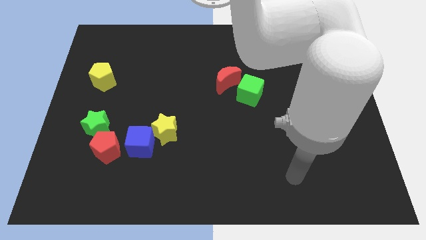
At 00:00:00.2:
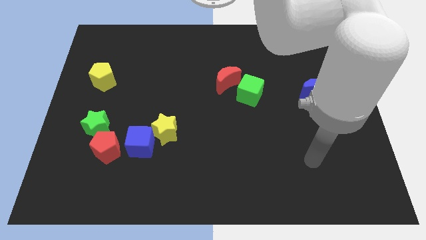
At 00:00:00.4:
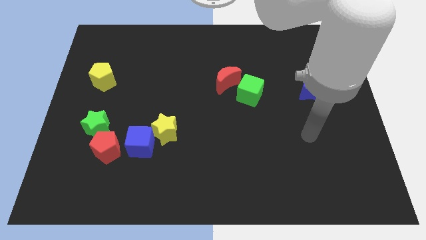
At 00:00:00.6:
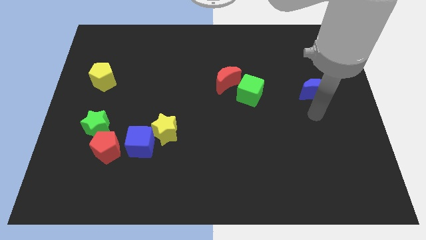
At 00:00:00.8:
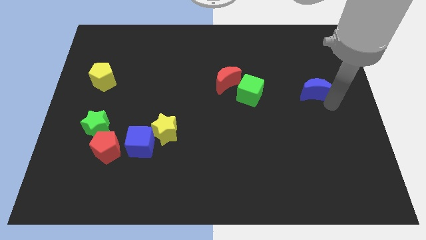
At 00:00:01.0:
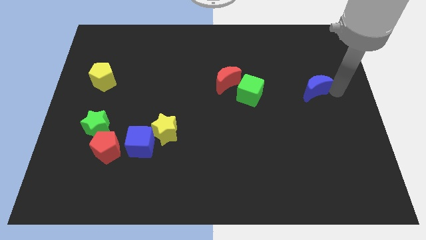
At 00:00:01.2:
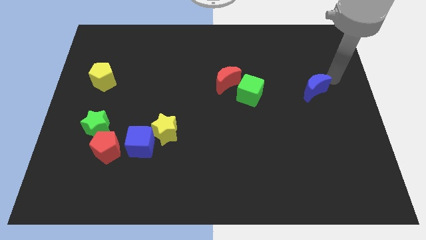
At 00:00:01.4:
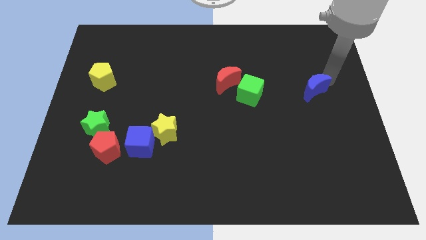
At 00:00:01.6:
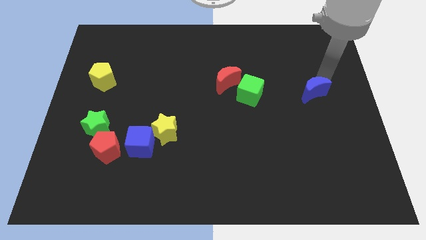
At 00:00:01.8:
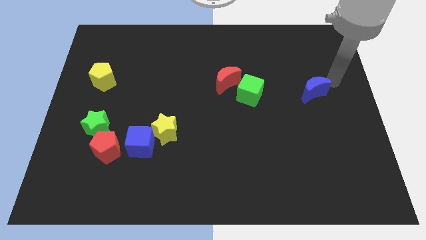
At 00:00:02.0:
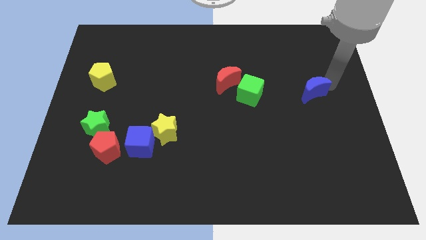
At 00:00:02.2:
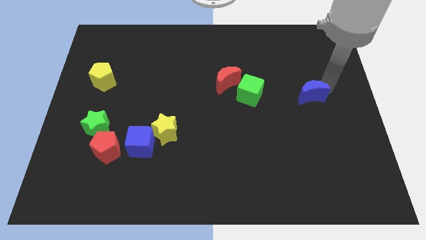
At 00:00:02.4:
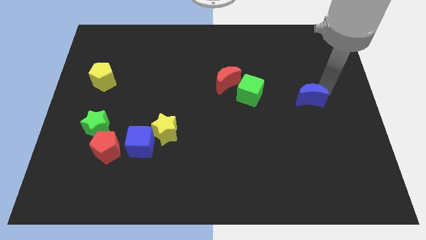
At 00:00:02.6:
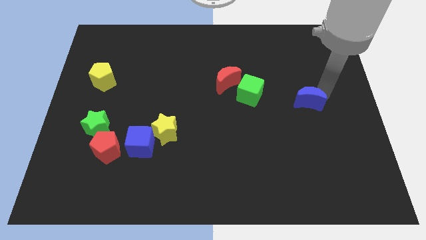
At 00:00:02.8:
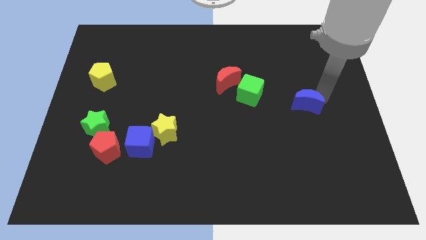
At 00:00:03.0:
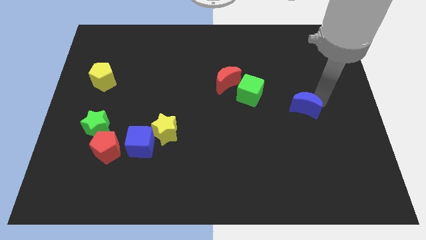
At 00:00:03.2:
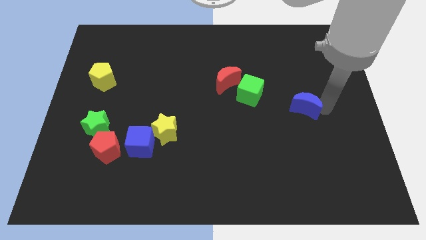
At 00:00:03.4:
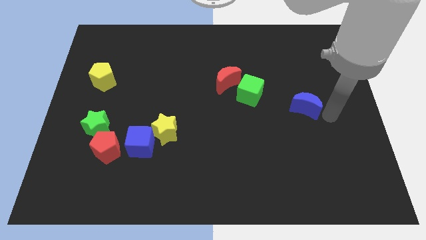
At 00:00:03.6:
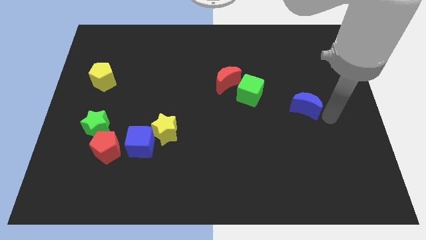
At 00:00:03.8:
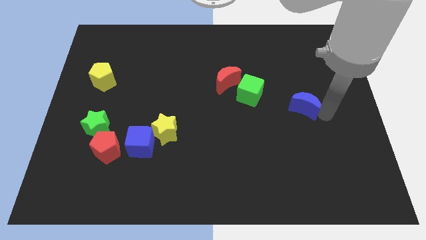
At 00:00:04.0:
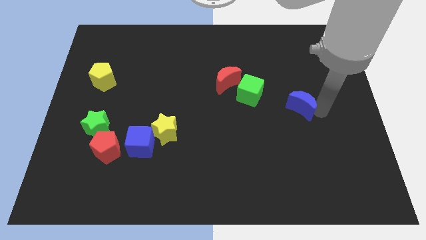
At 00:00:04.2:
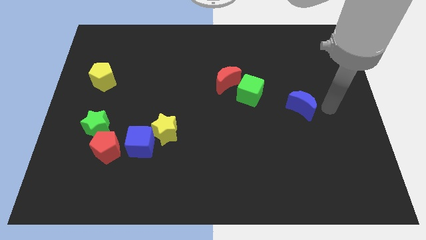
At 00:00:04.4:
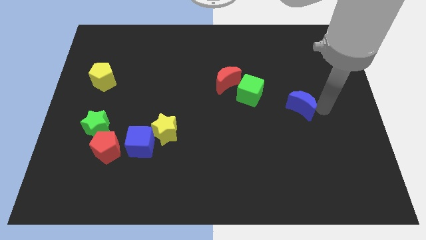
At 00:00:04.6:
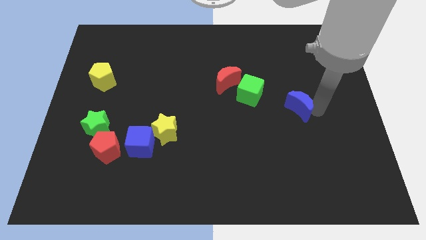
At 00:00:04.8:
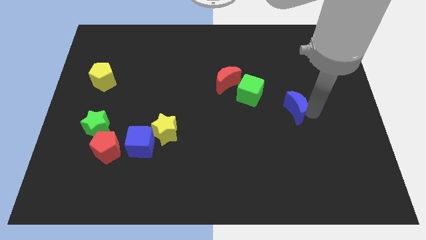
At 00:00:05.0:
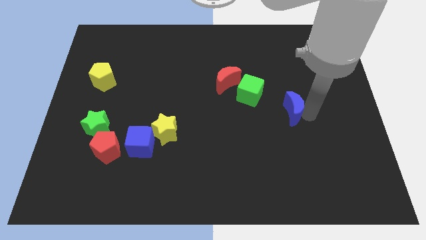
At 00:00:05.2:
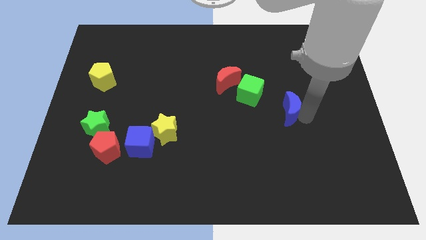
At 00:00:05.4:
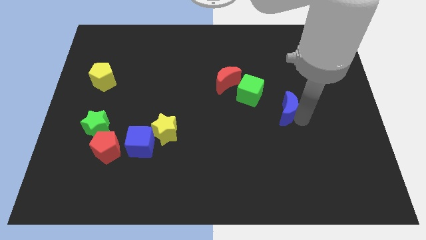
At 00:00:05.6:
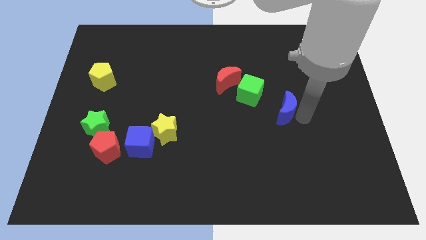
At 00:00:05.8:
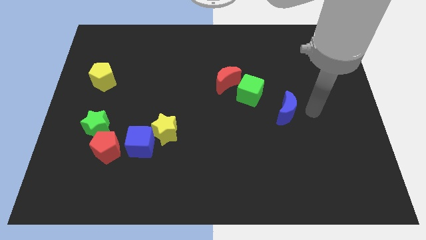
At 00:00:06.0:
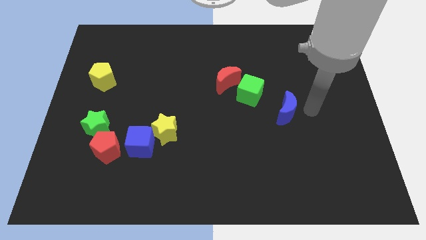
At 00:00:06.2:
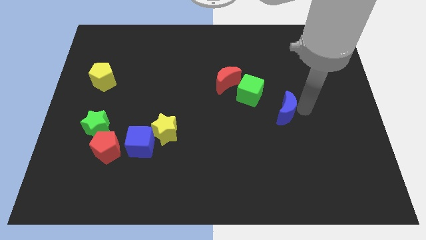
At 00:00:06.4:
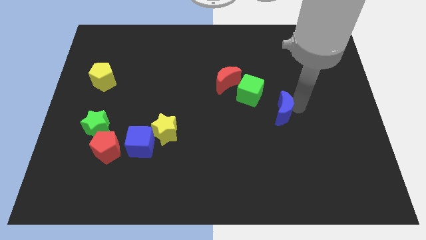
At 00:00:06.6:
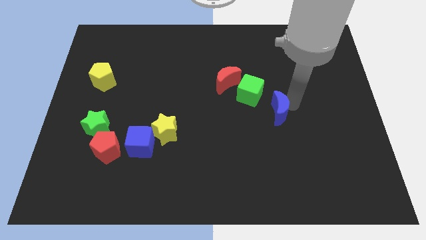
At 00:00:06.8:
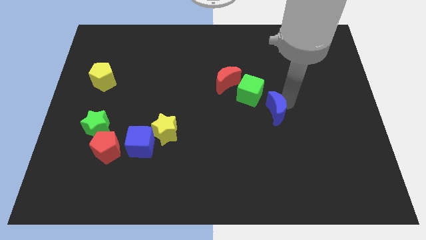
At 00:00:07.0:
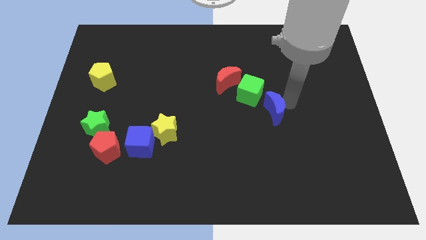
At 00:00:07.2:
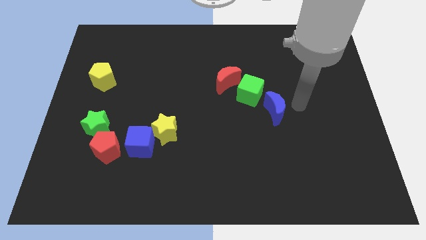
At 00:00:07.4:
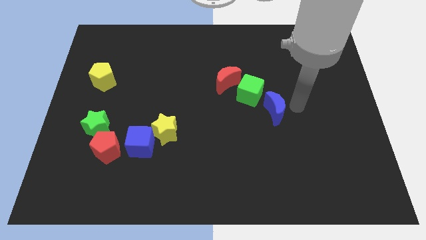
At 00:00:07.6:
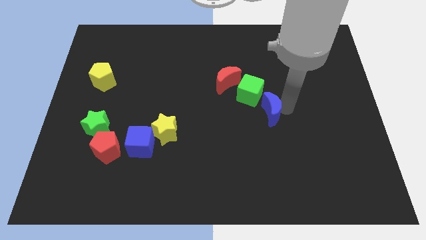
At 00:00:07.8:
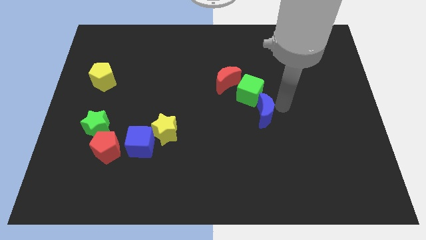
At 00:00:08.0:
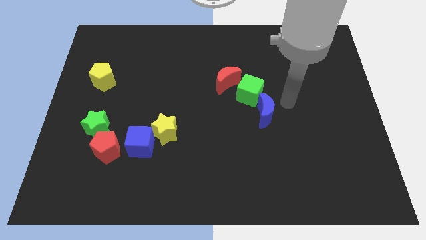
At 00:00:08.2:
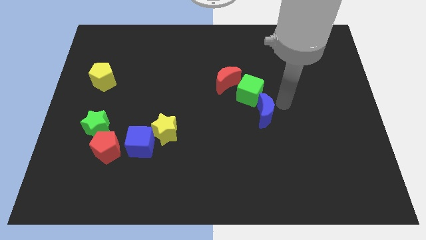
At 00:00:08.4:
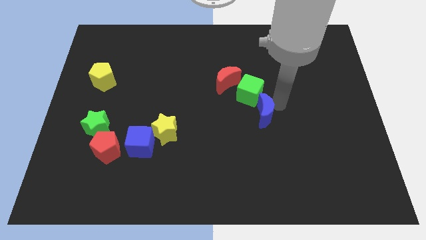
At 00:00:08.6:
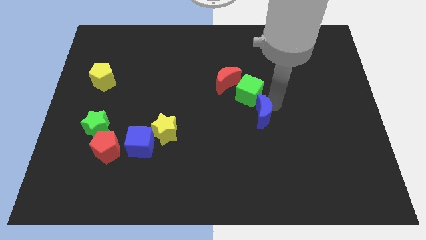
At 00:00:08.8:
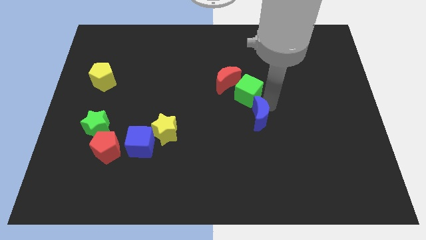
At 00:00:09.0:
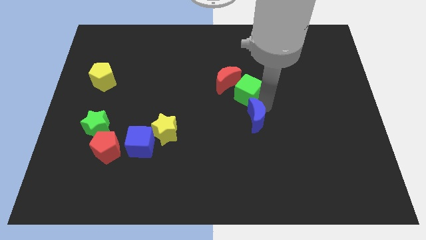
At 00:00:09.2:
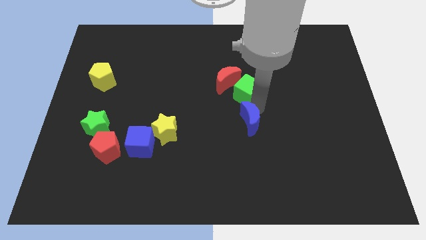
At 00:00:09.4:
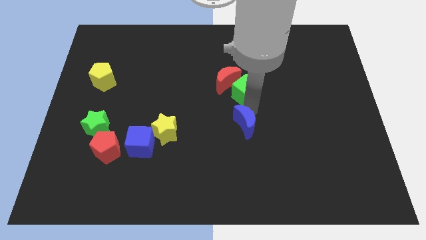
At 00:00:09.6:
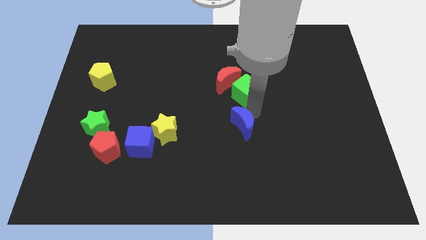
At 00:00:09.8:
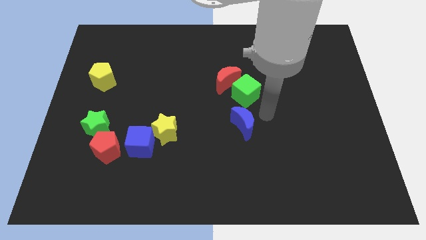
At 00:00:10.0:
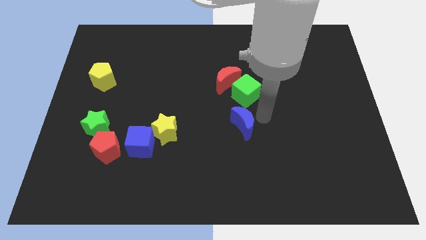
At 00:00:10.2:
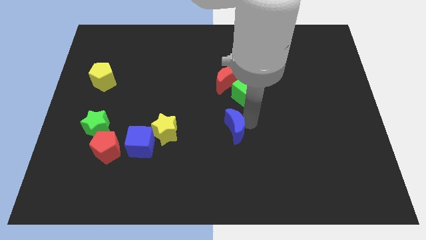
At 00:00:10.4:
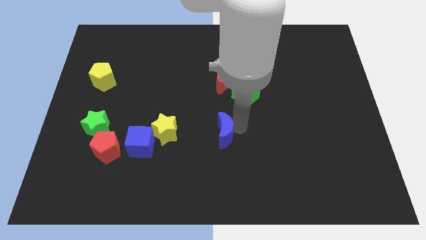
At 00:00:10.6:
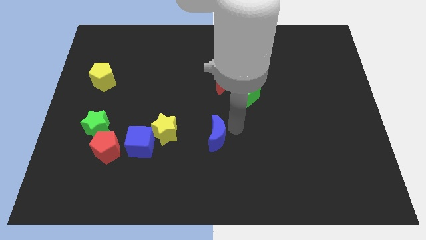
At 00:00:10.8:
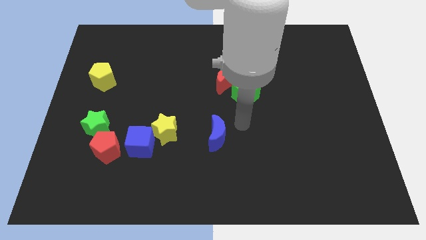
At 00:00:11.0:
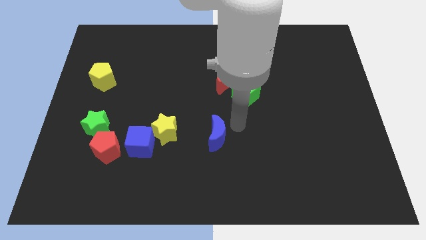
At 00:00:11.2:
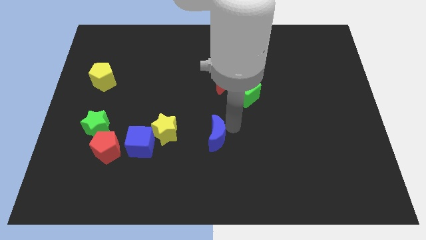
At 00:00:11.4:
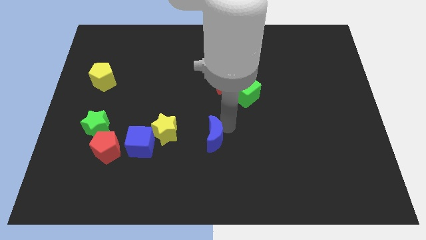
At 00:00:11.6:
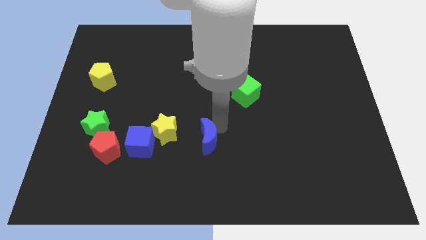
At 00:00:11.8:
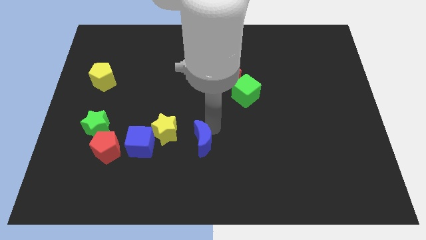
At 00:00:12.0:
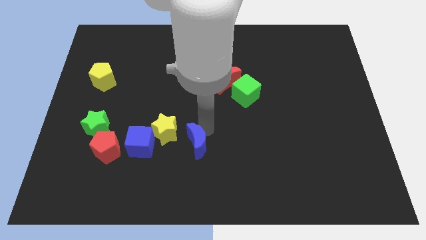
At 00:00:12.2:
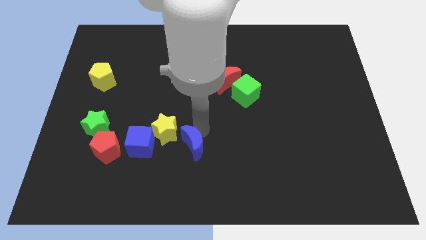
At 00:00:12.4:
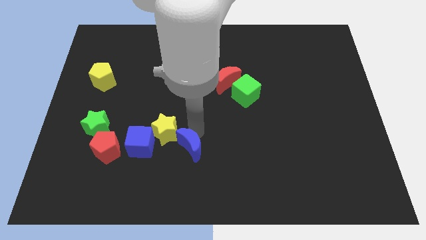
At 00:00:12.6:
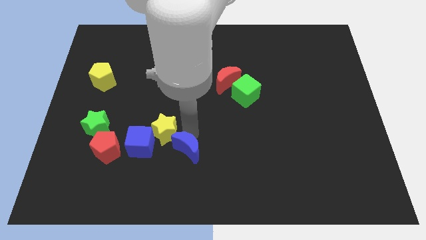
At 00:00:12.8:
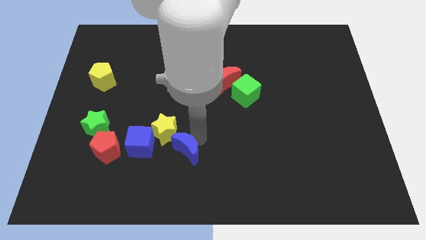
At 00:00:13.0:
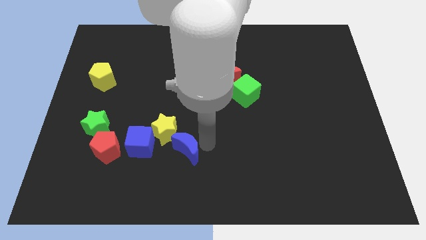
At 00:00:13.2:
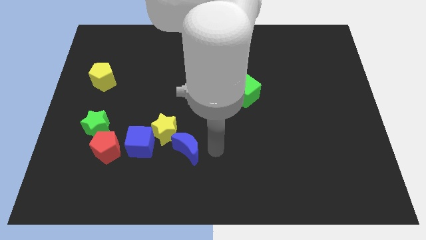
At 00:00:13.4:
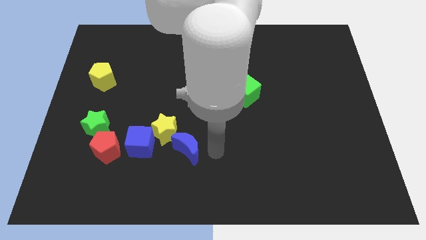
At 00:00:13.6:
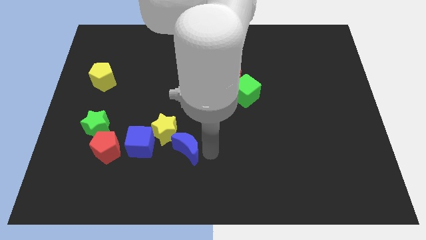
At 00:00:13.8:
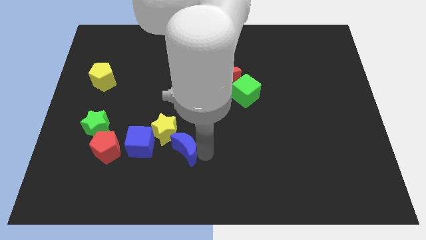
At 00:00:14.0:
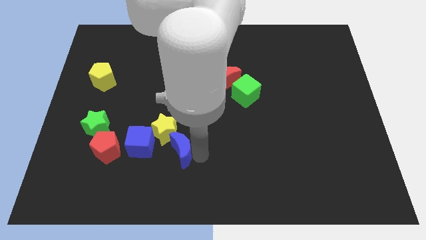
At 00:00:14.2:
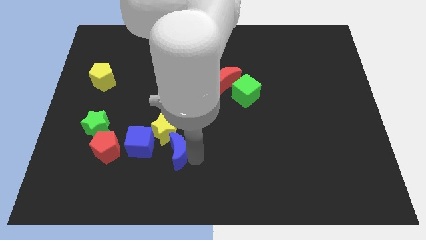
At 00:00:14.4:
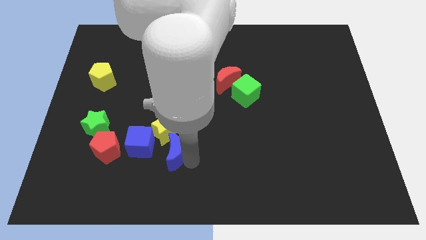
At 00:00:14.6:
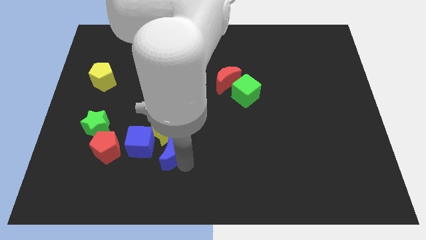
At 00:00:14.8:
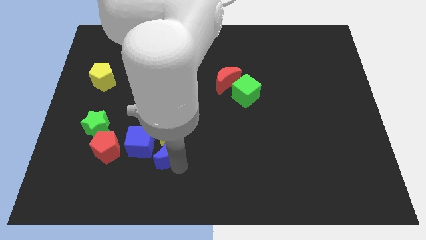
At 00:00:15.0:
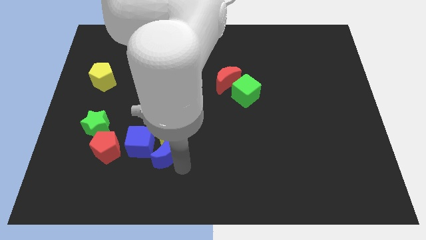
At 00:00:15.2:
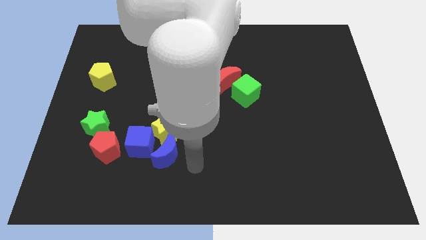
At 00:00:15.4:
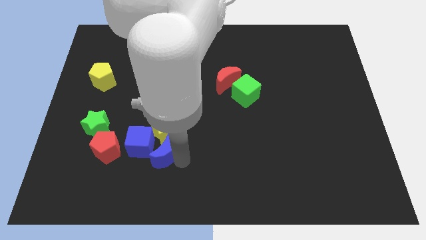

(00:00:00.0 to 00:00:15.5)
move the blue moon towards the blue cube
